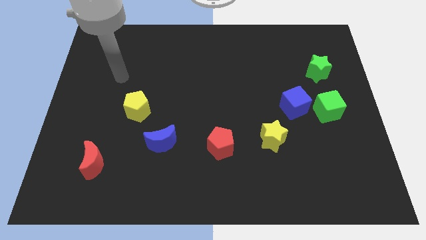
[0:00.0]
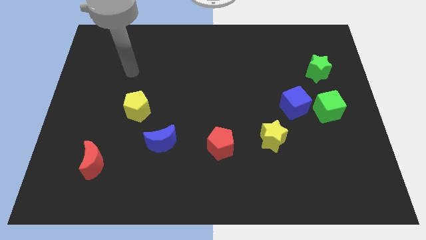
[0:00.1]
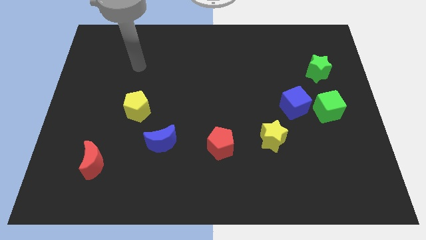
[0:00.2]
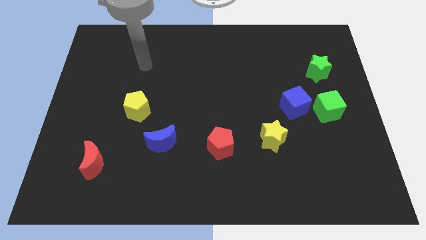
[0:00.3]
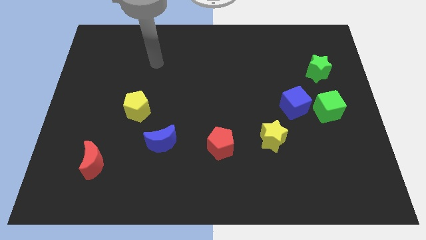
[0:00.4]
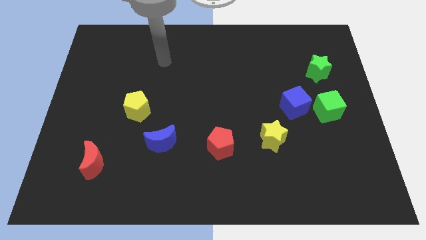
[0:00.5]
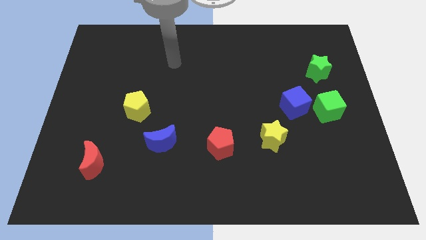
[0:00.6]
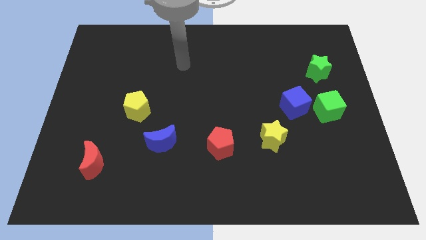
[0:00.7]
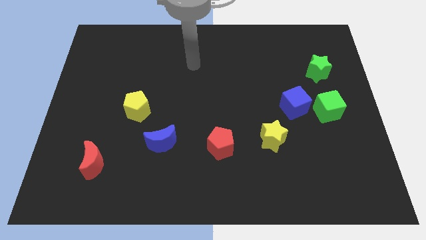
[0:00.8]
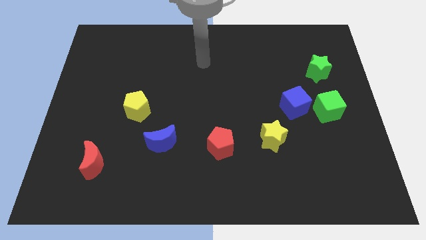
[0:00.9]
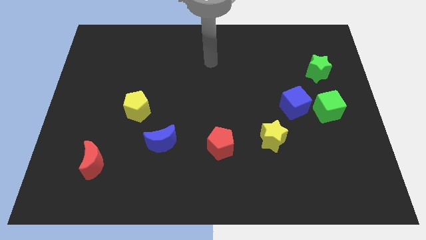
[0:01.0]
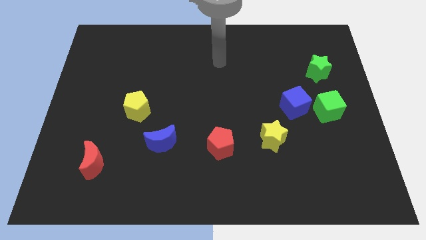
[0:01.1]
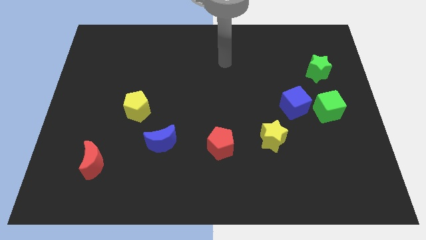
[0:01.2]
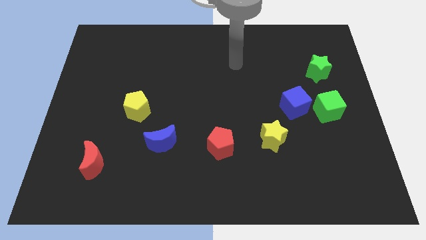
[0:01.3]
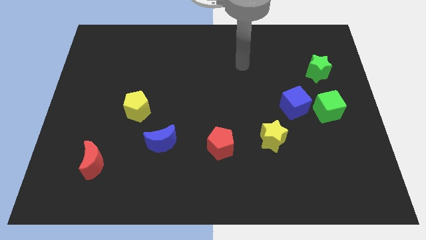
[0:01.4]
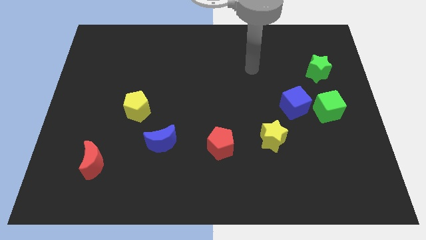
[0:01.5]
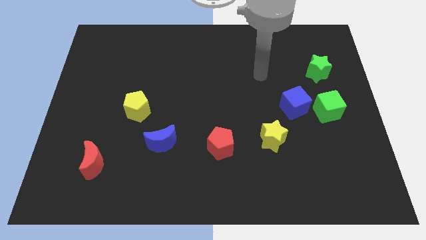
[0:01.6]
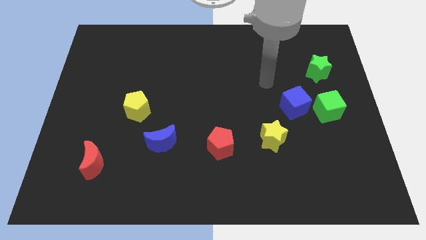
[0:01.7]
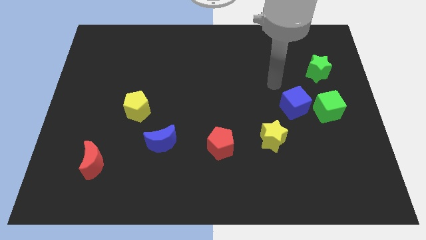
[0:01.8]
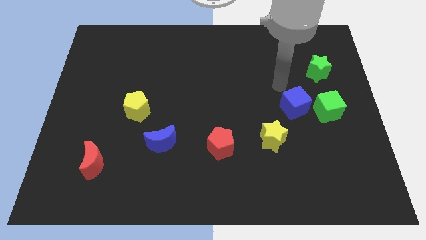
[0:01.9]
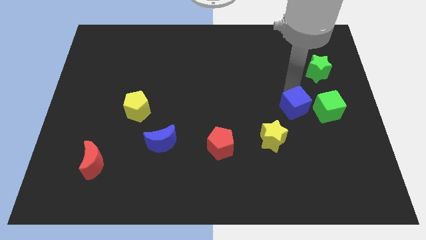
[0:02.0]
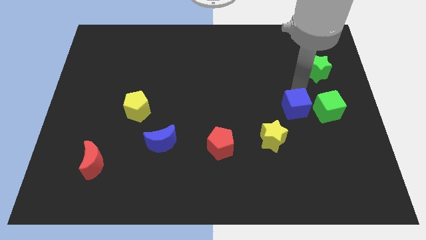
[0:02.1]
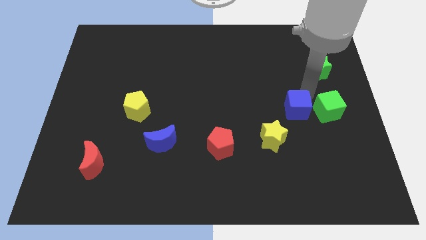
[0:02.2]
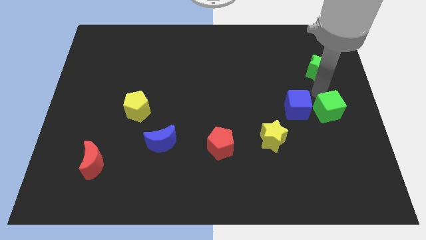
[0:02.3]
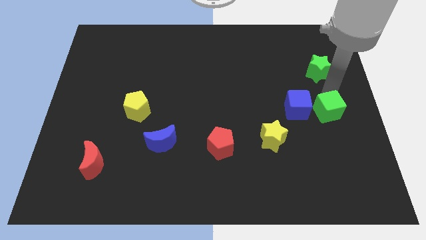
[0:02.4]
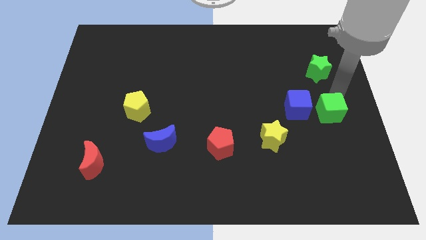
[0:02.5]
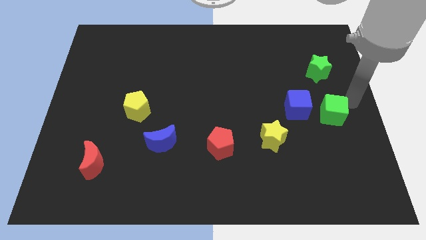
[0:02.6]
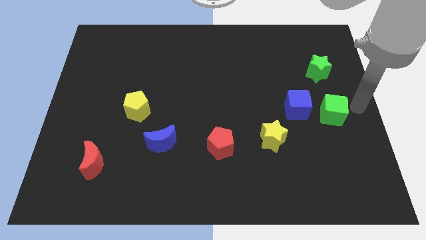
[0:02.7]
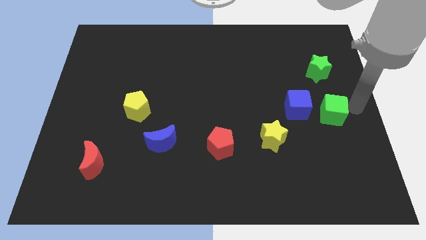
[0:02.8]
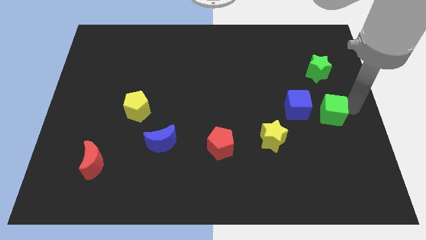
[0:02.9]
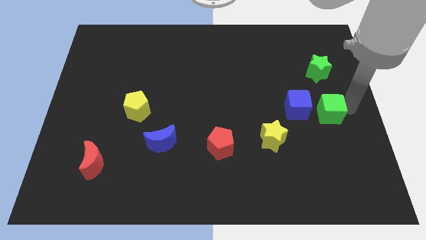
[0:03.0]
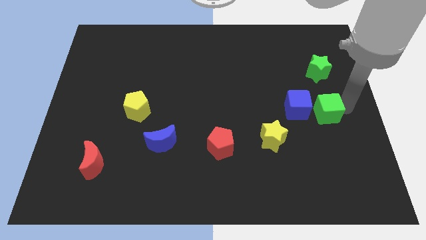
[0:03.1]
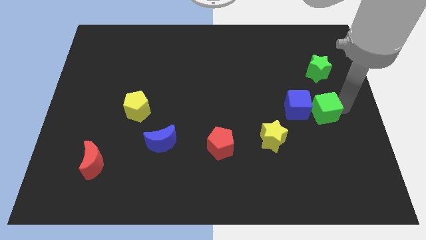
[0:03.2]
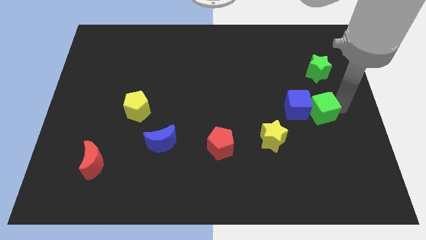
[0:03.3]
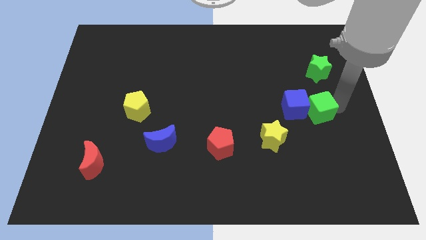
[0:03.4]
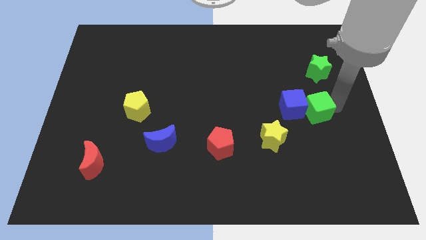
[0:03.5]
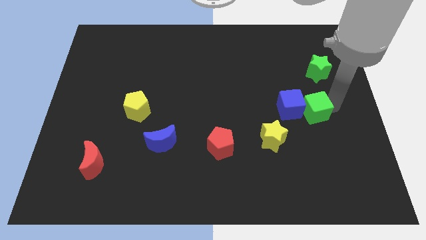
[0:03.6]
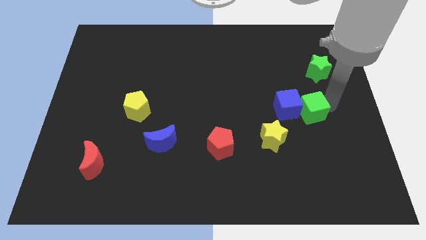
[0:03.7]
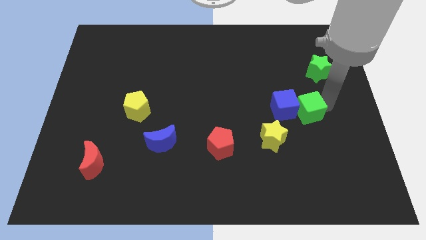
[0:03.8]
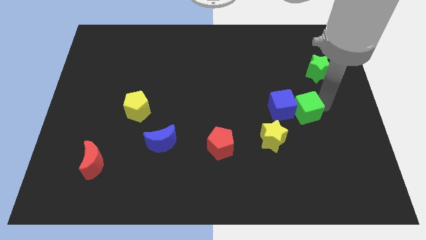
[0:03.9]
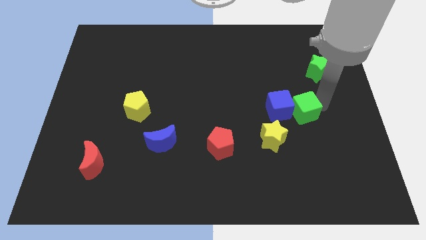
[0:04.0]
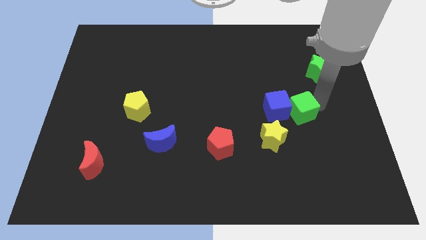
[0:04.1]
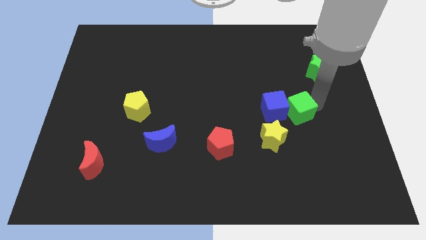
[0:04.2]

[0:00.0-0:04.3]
slide the green cube left somewhat

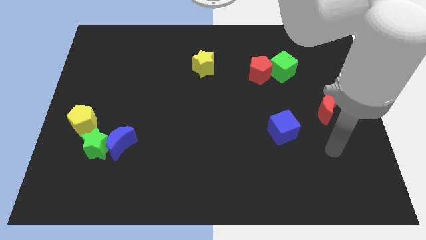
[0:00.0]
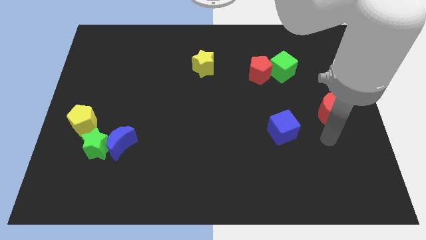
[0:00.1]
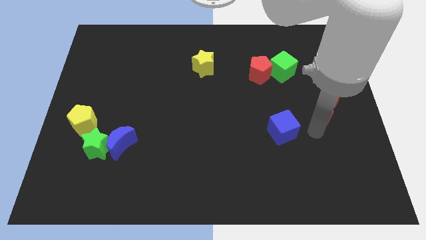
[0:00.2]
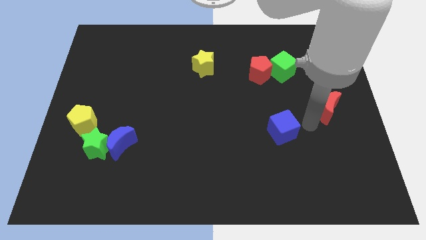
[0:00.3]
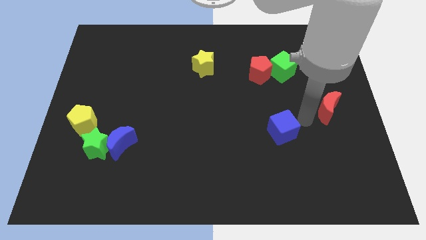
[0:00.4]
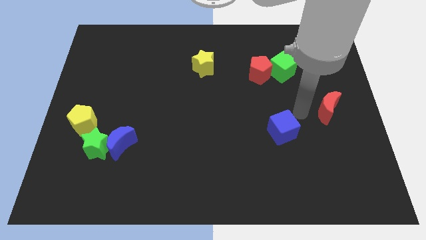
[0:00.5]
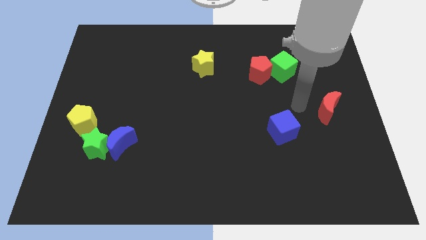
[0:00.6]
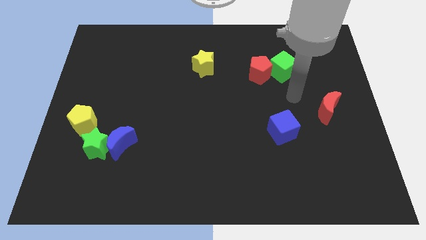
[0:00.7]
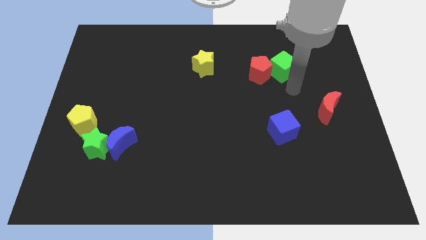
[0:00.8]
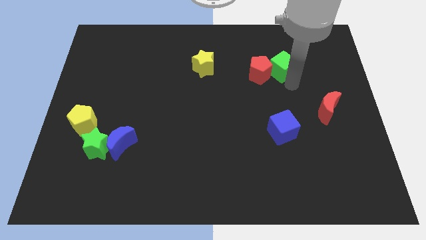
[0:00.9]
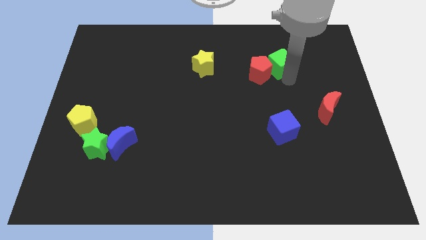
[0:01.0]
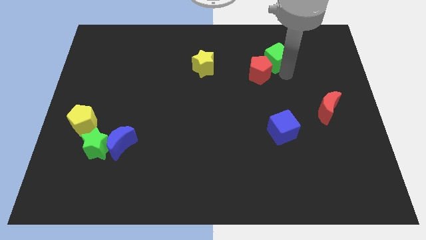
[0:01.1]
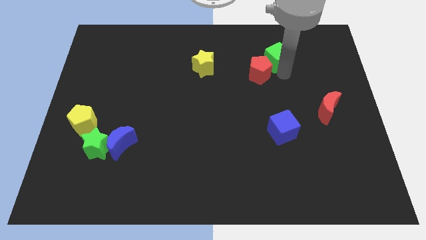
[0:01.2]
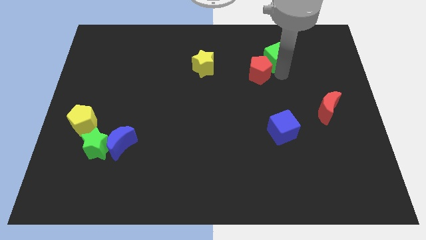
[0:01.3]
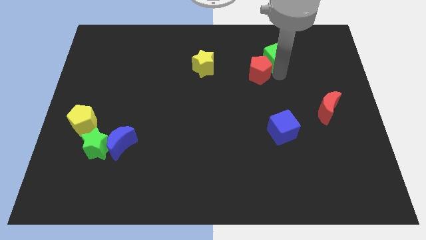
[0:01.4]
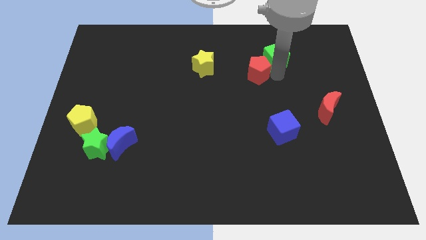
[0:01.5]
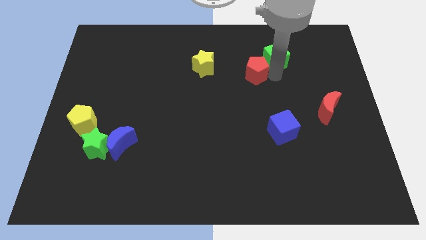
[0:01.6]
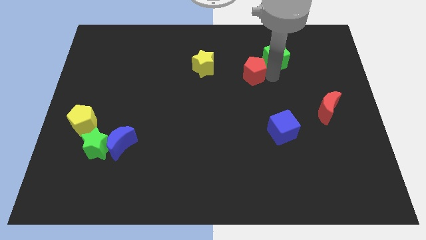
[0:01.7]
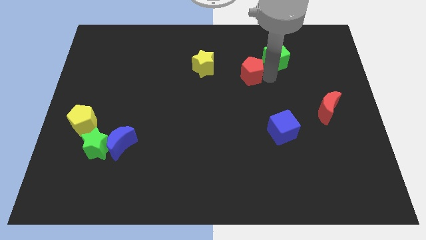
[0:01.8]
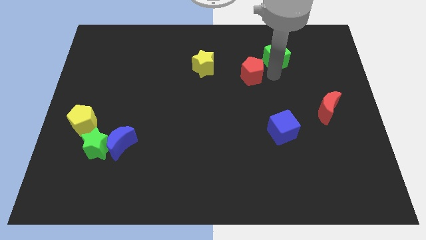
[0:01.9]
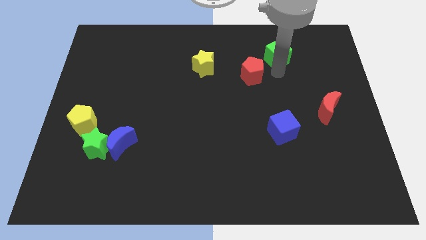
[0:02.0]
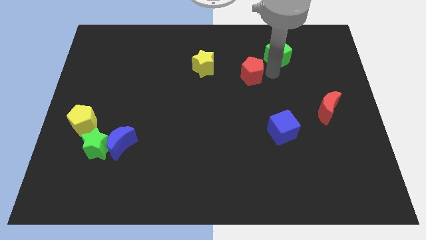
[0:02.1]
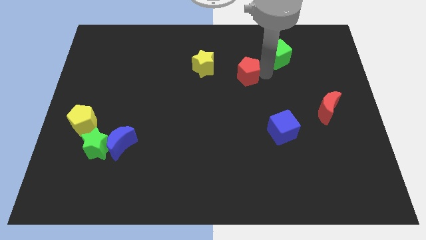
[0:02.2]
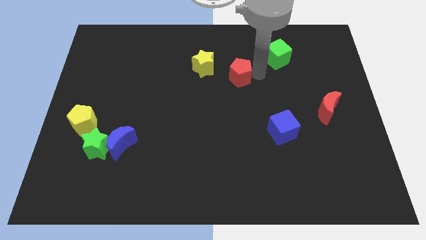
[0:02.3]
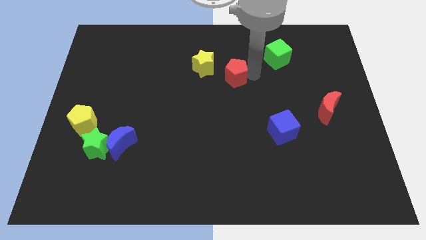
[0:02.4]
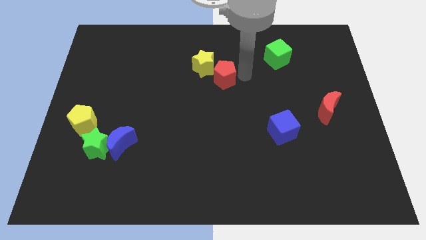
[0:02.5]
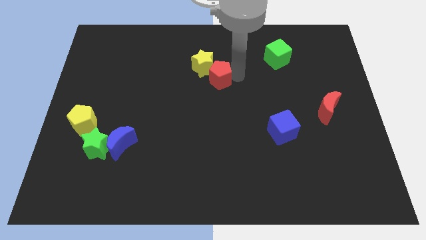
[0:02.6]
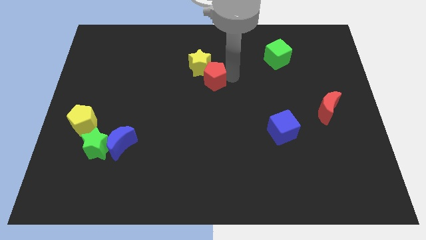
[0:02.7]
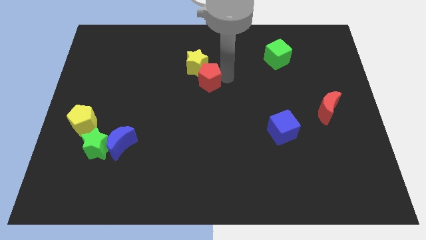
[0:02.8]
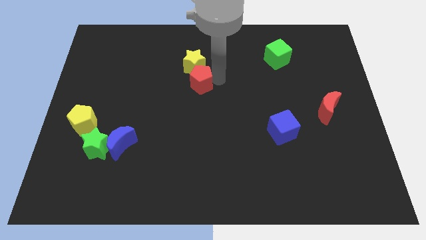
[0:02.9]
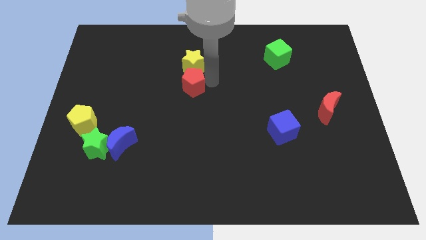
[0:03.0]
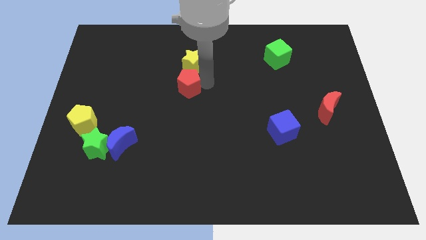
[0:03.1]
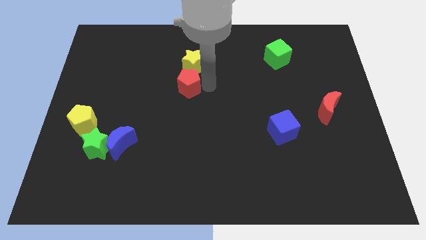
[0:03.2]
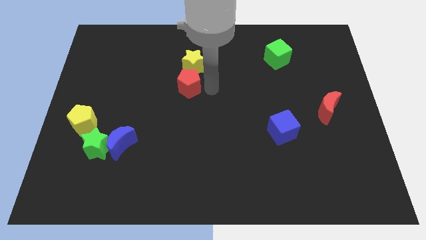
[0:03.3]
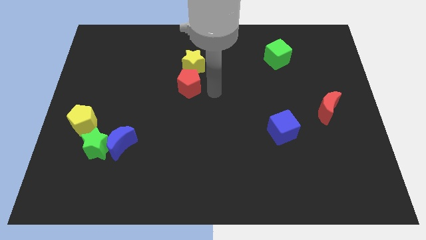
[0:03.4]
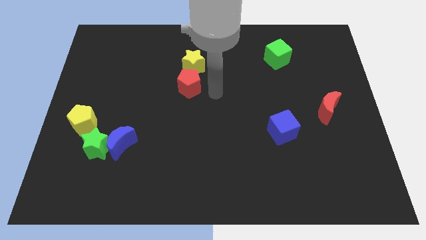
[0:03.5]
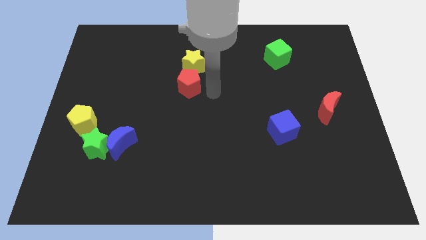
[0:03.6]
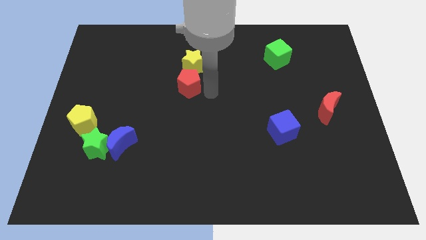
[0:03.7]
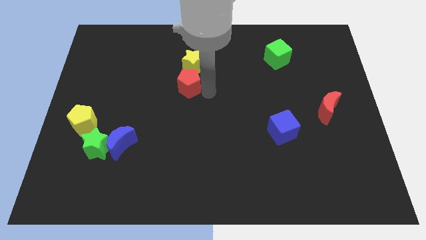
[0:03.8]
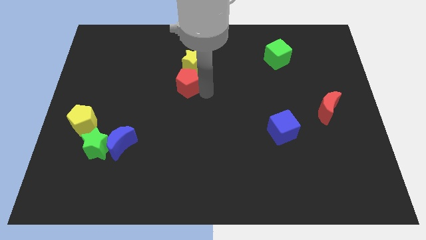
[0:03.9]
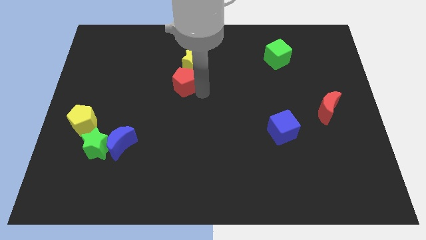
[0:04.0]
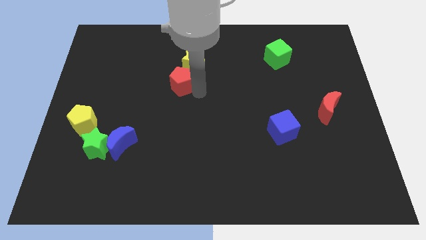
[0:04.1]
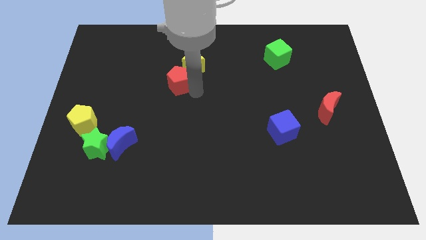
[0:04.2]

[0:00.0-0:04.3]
move the red pentagon to the left
